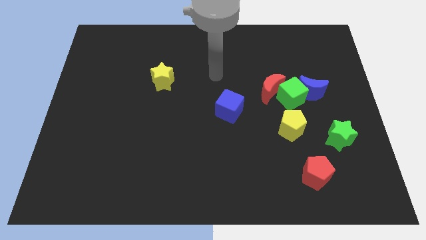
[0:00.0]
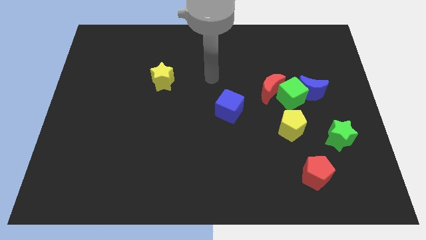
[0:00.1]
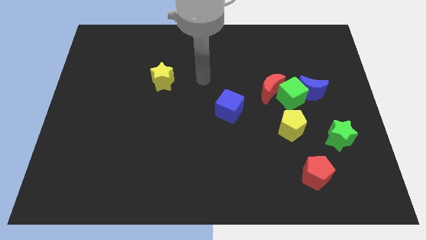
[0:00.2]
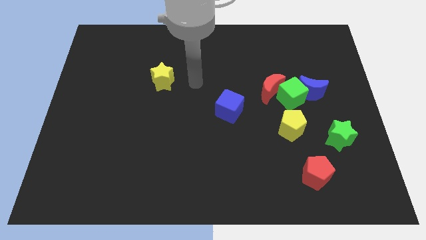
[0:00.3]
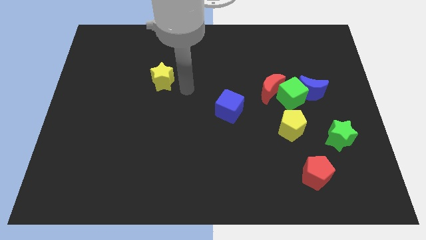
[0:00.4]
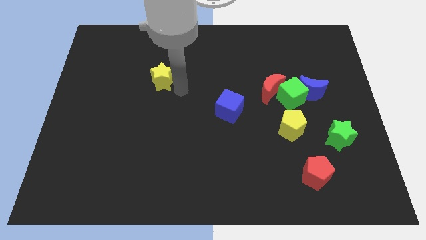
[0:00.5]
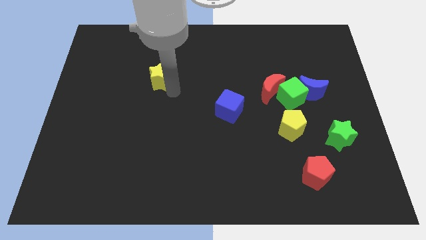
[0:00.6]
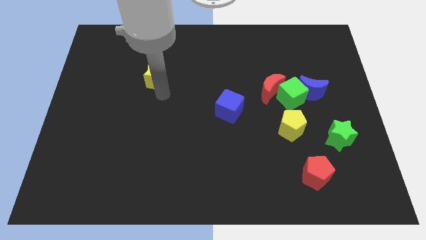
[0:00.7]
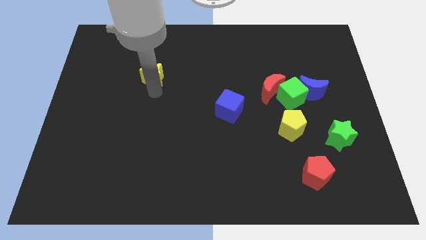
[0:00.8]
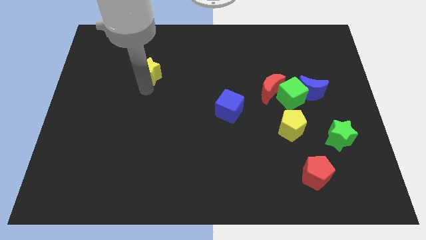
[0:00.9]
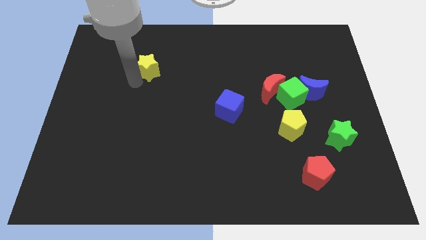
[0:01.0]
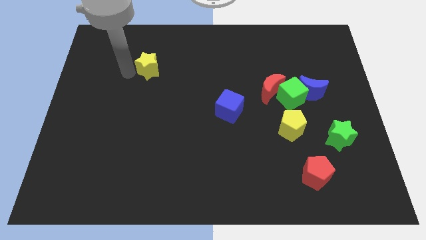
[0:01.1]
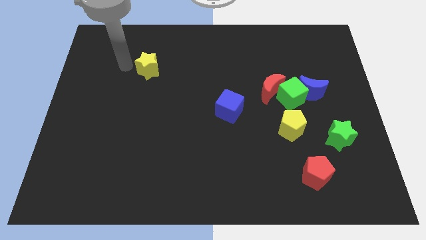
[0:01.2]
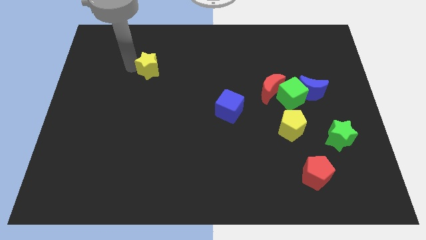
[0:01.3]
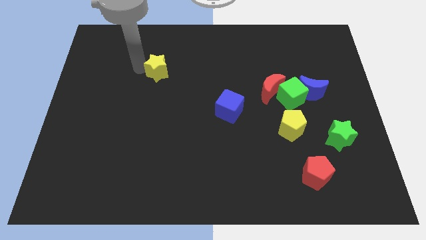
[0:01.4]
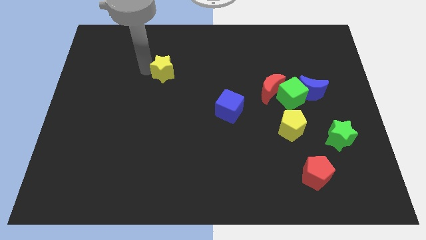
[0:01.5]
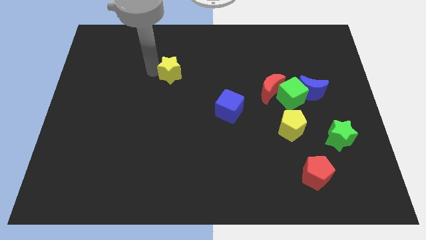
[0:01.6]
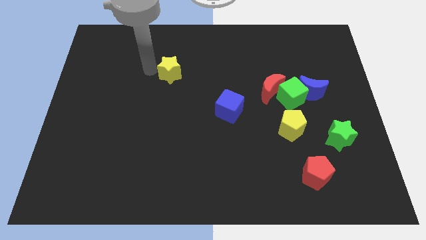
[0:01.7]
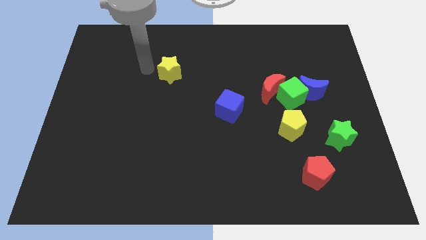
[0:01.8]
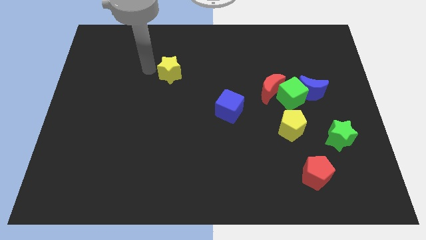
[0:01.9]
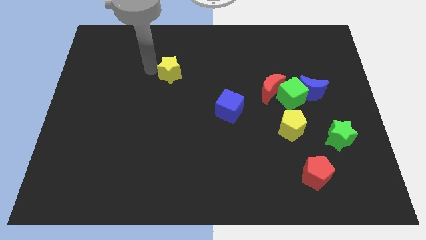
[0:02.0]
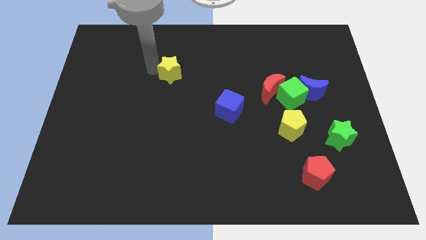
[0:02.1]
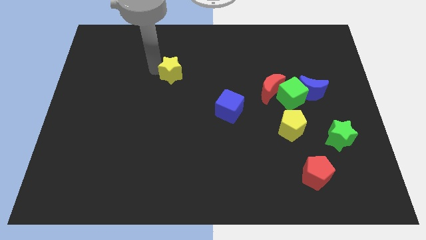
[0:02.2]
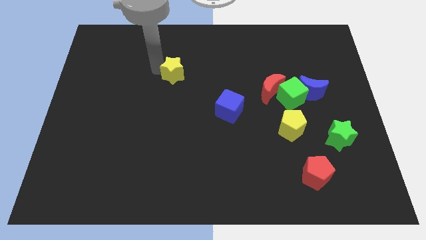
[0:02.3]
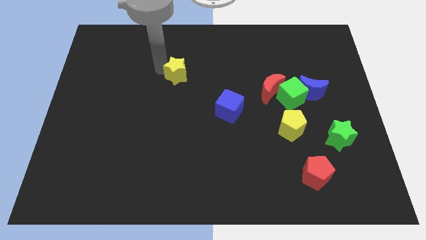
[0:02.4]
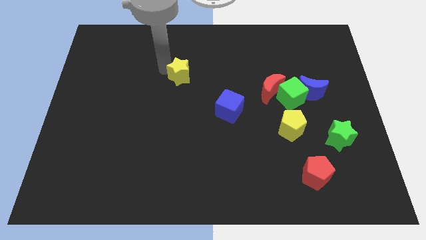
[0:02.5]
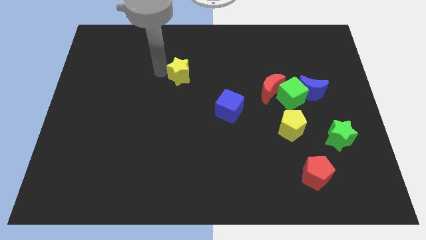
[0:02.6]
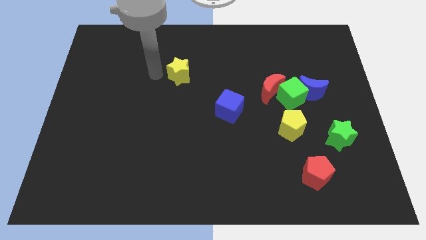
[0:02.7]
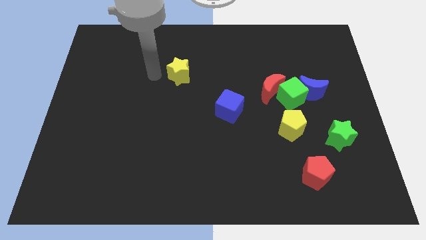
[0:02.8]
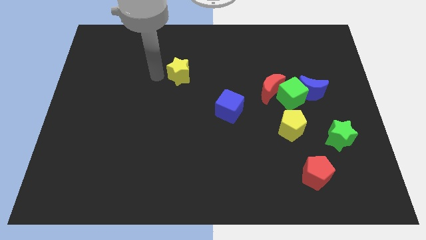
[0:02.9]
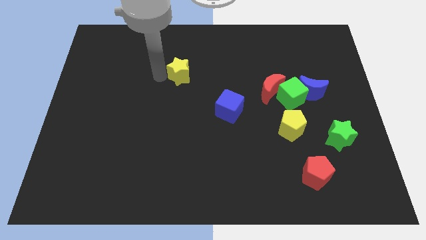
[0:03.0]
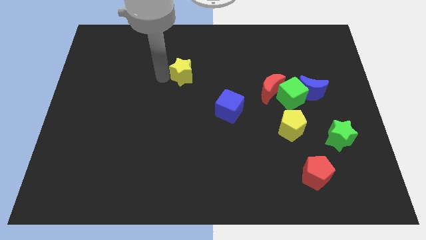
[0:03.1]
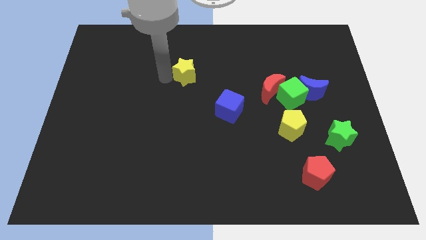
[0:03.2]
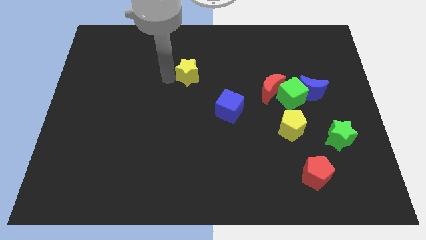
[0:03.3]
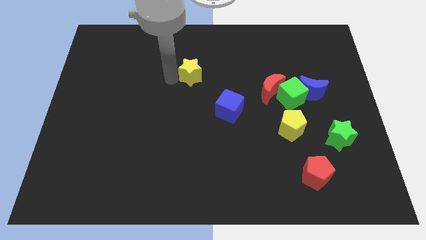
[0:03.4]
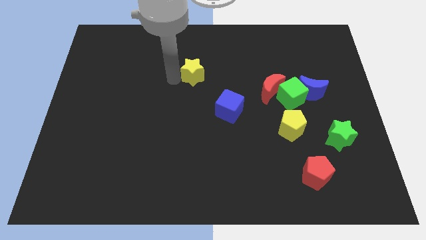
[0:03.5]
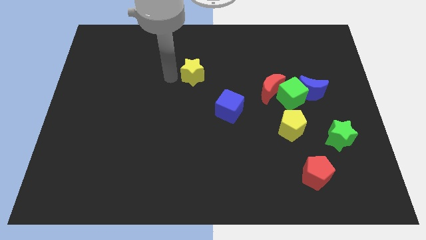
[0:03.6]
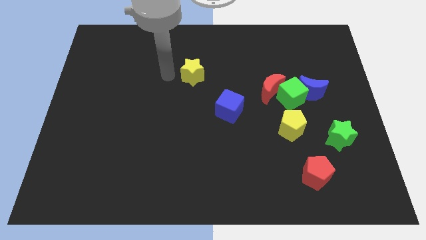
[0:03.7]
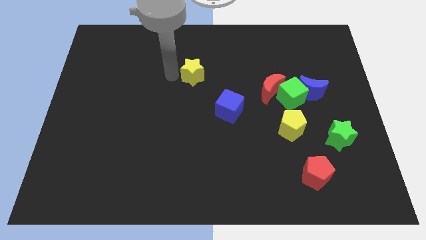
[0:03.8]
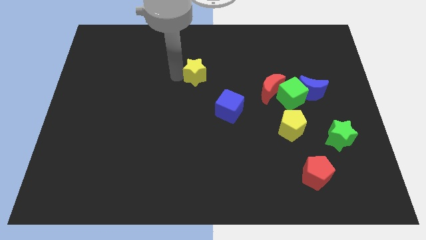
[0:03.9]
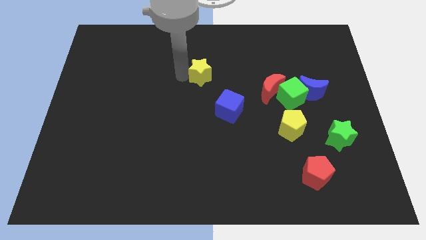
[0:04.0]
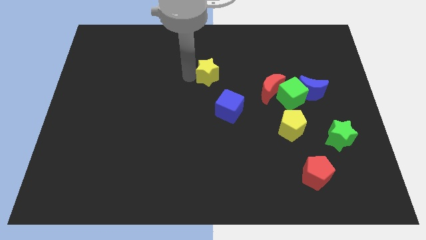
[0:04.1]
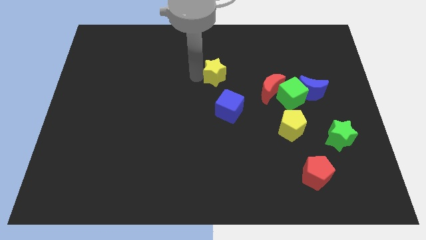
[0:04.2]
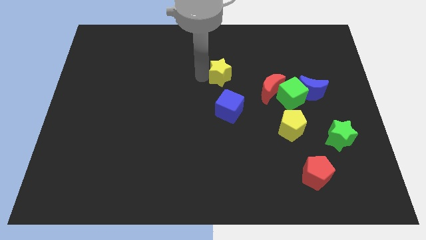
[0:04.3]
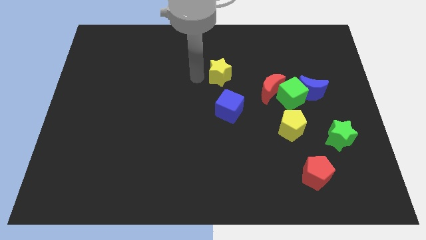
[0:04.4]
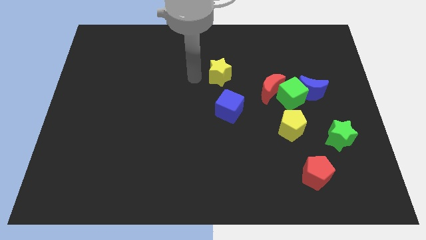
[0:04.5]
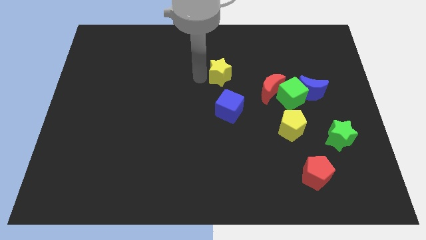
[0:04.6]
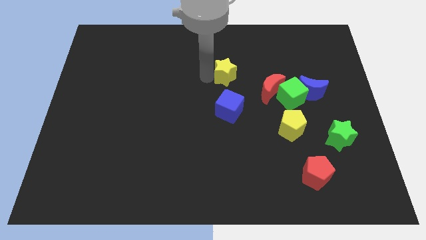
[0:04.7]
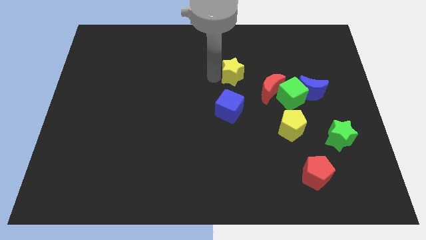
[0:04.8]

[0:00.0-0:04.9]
move the yellow star to the top left side of the red moon

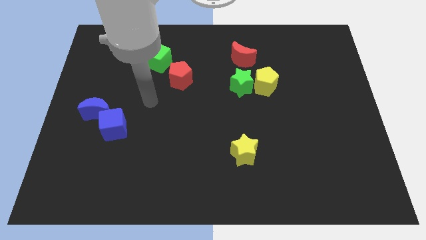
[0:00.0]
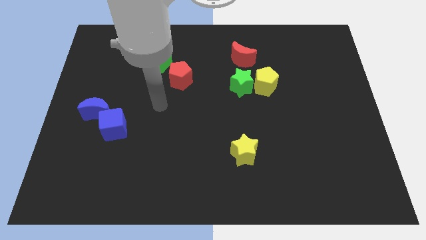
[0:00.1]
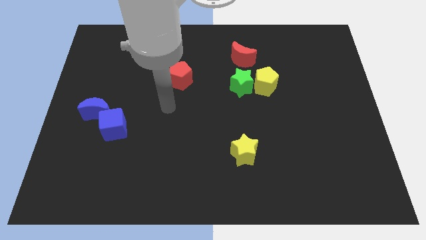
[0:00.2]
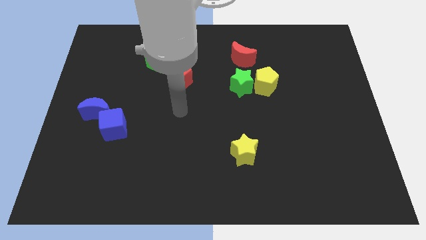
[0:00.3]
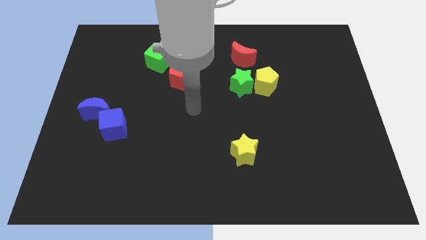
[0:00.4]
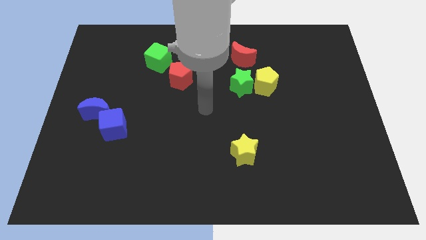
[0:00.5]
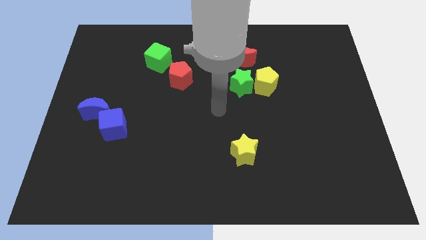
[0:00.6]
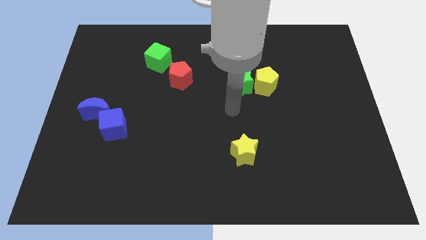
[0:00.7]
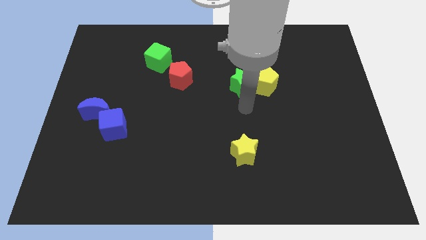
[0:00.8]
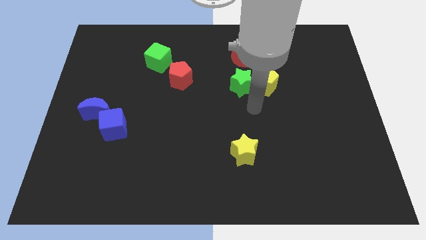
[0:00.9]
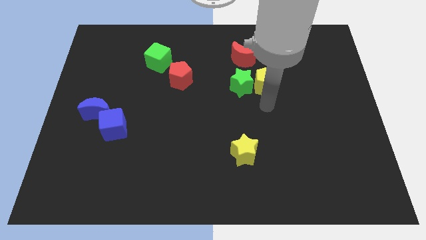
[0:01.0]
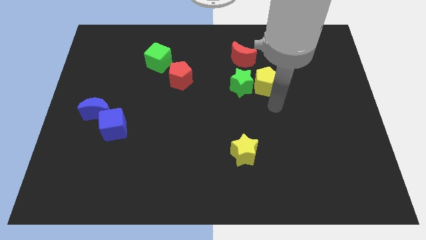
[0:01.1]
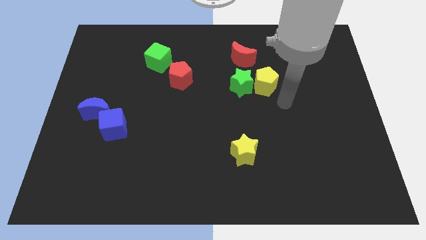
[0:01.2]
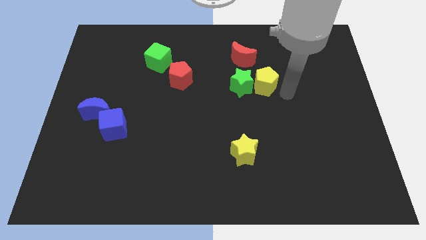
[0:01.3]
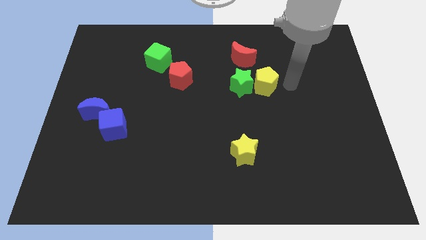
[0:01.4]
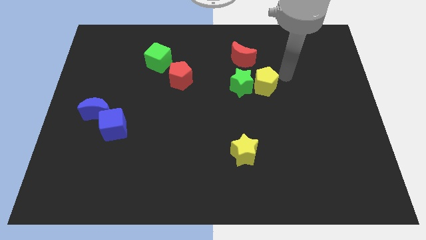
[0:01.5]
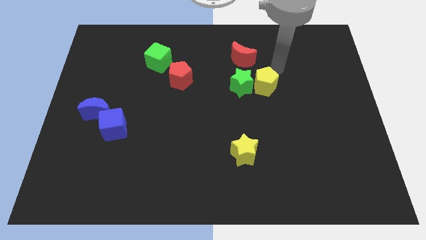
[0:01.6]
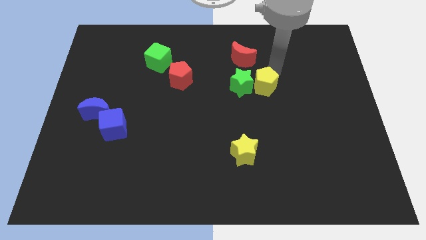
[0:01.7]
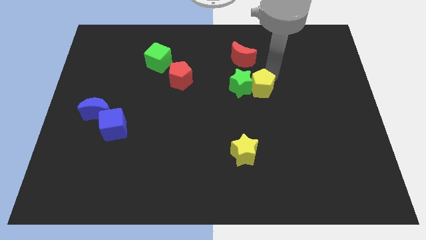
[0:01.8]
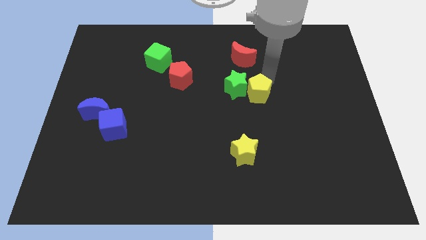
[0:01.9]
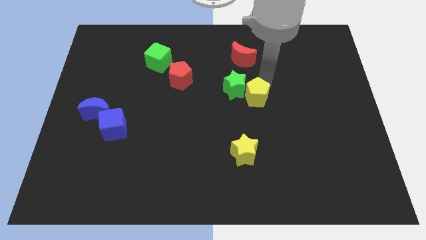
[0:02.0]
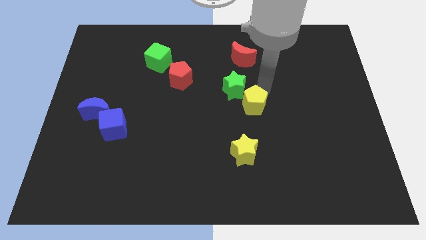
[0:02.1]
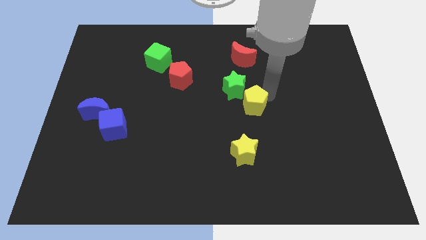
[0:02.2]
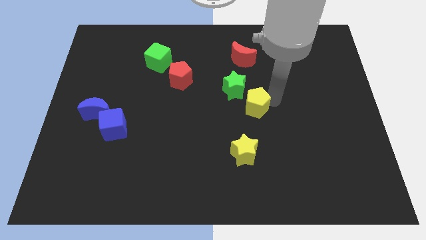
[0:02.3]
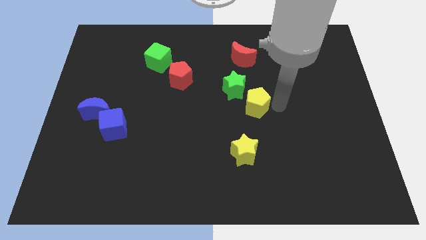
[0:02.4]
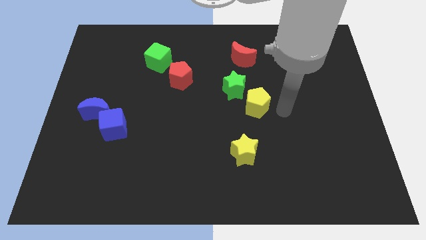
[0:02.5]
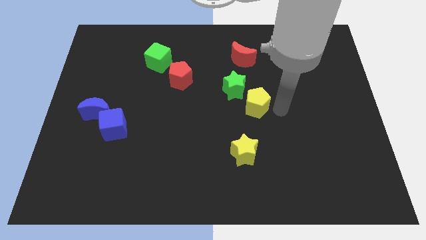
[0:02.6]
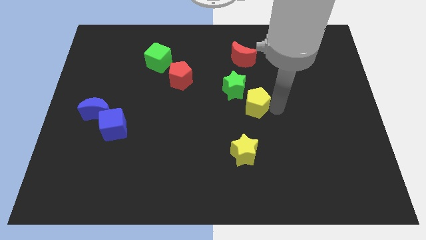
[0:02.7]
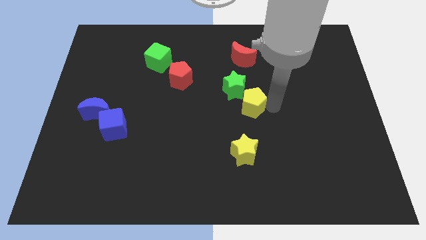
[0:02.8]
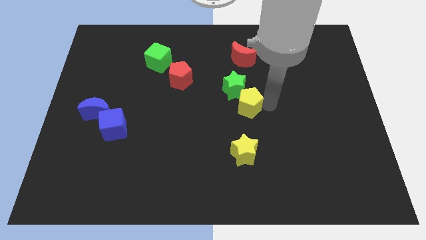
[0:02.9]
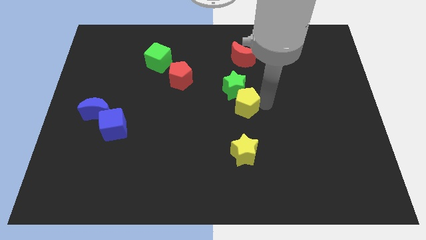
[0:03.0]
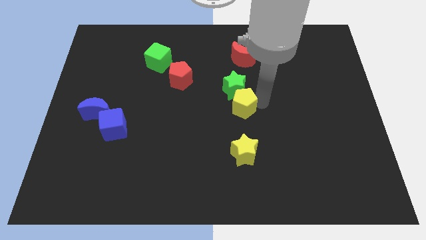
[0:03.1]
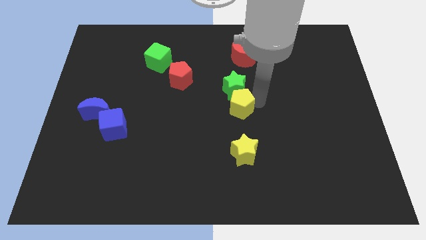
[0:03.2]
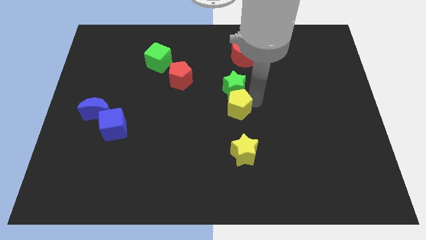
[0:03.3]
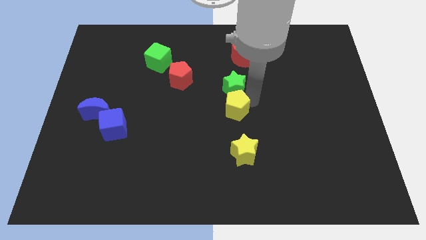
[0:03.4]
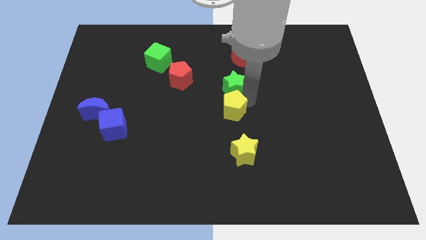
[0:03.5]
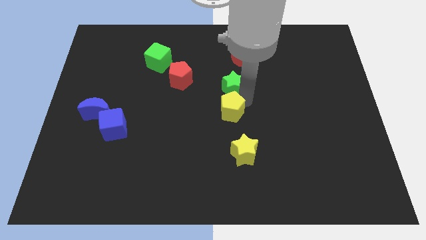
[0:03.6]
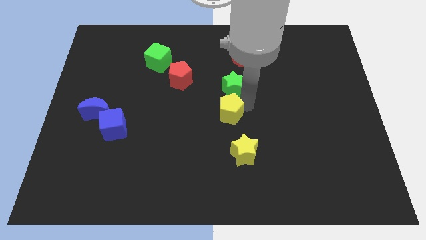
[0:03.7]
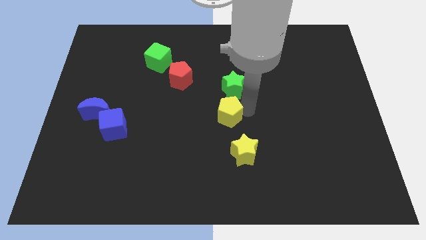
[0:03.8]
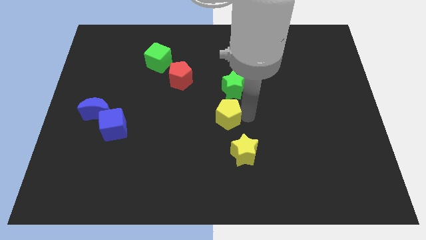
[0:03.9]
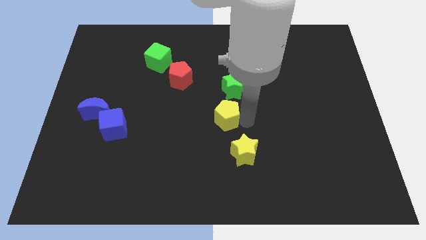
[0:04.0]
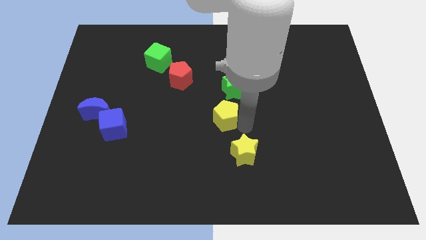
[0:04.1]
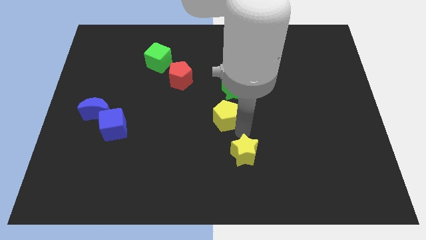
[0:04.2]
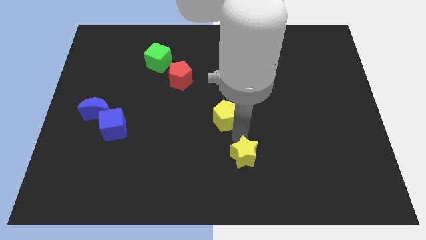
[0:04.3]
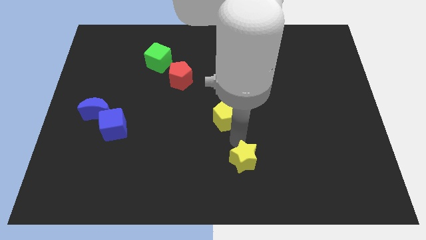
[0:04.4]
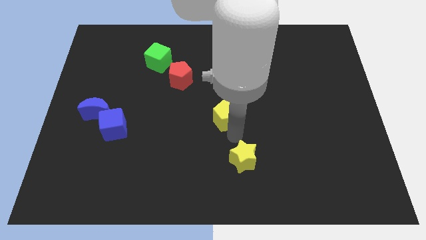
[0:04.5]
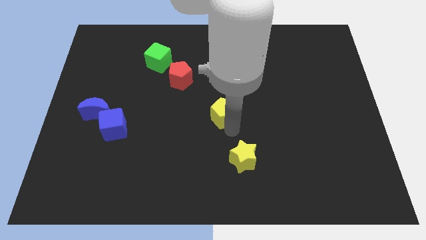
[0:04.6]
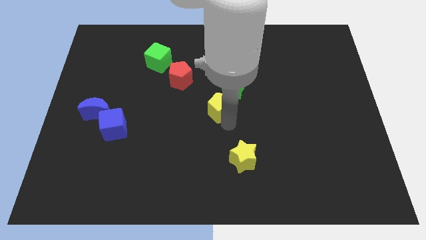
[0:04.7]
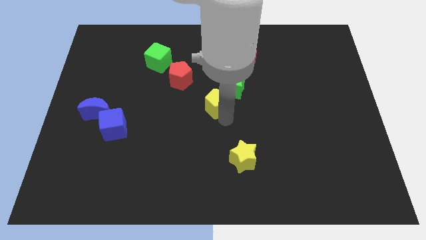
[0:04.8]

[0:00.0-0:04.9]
slide the yellow pentagon diagonally down and to the right of the red pentagon
